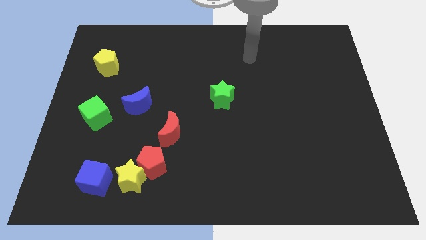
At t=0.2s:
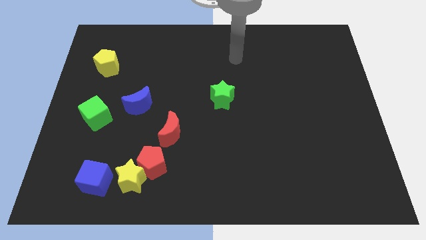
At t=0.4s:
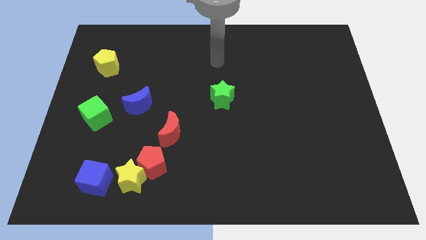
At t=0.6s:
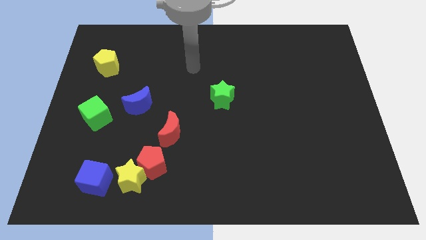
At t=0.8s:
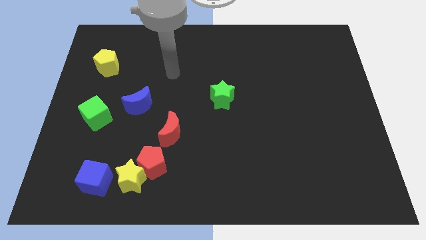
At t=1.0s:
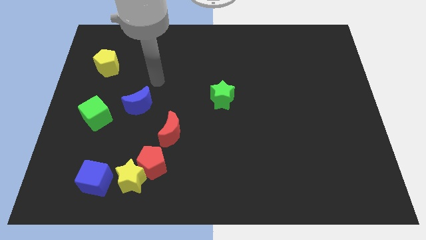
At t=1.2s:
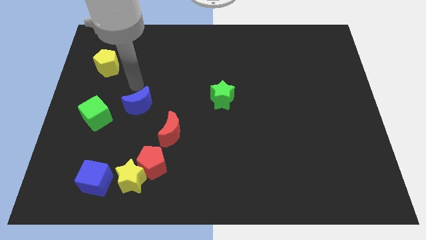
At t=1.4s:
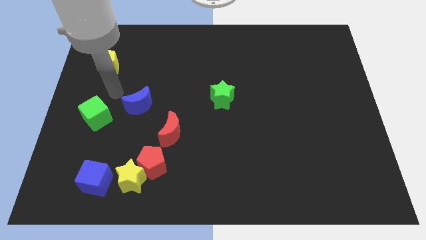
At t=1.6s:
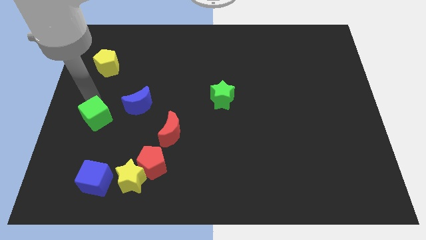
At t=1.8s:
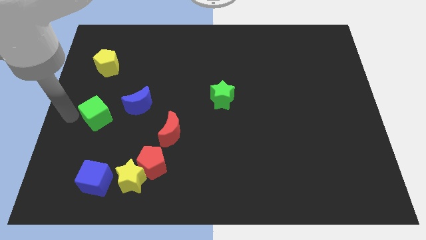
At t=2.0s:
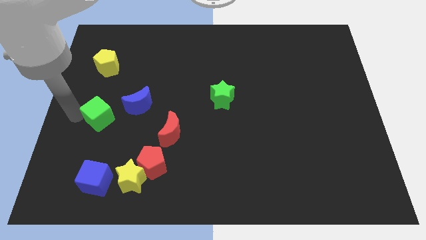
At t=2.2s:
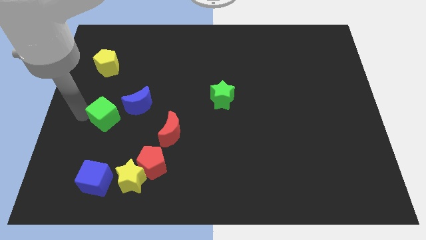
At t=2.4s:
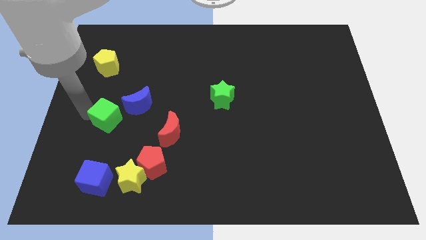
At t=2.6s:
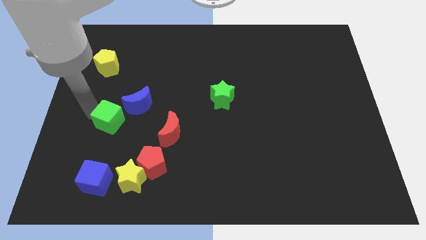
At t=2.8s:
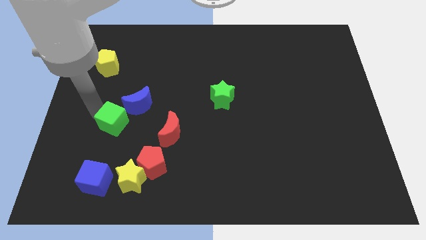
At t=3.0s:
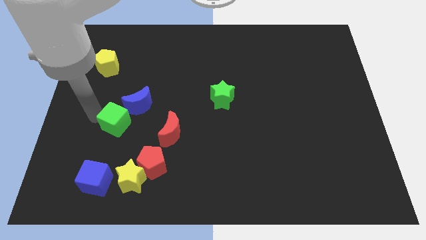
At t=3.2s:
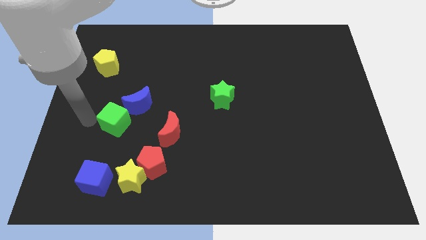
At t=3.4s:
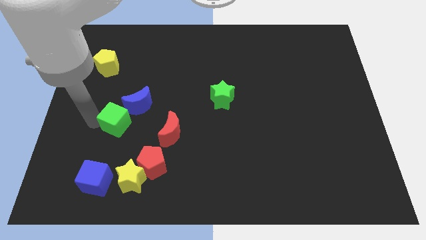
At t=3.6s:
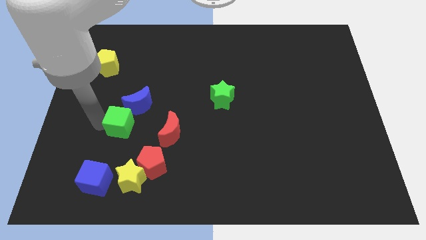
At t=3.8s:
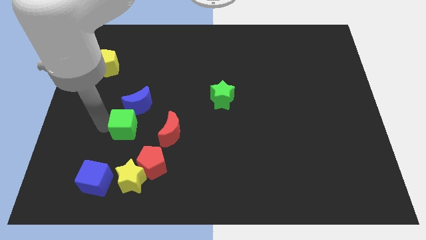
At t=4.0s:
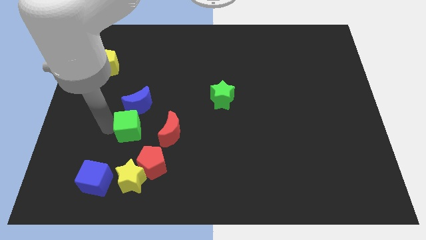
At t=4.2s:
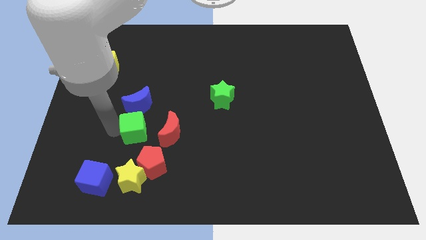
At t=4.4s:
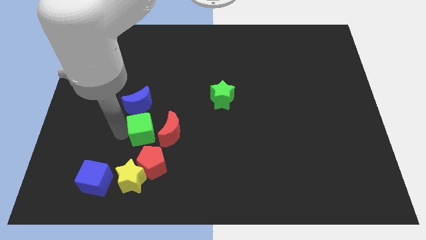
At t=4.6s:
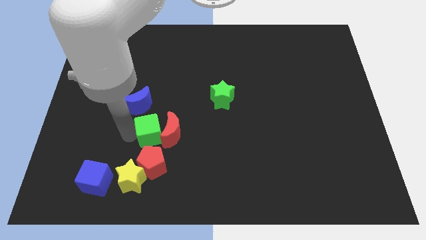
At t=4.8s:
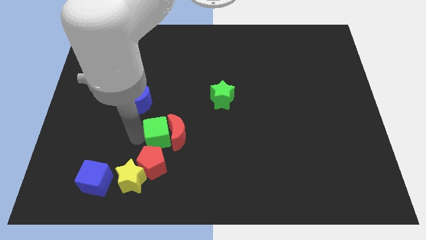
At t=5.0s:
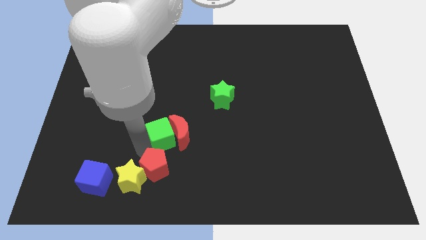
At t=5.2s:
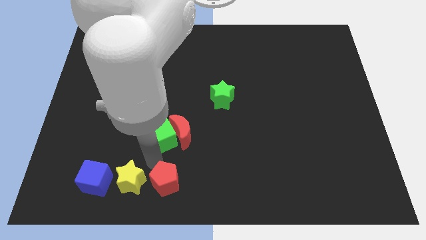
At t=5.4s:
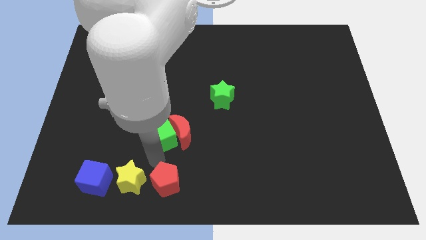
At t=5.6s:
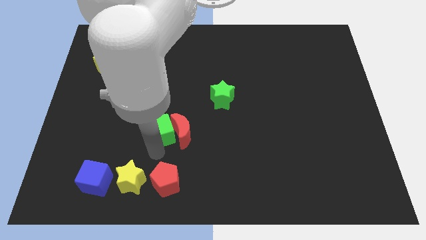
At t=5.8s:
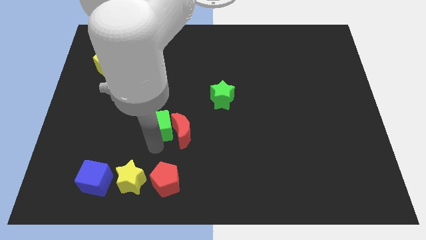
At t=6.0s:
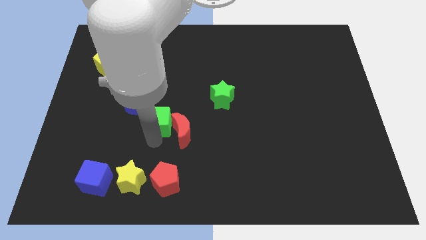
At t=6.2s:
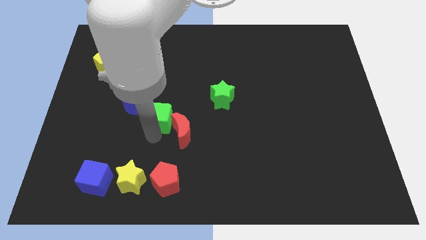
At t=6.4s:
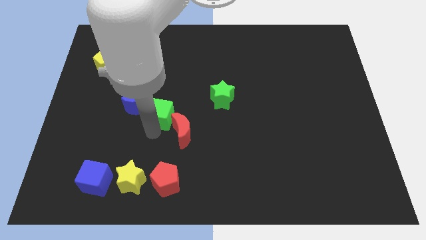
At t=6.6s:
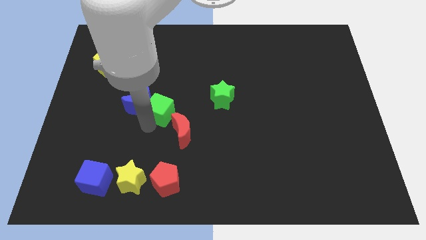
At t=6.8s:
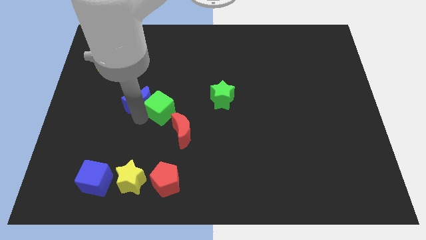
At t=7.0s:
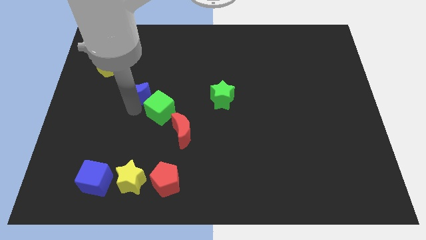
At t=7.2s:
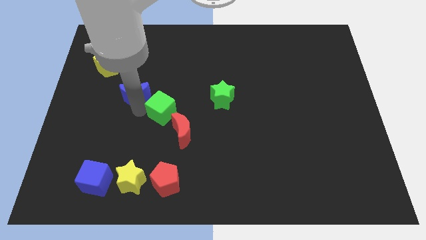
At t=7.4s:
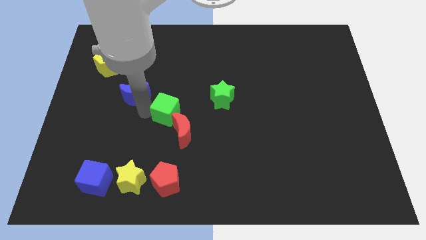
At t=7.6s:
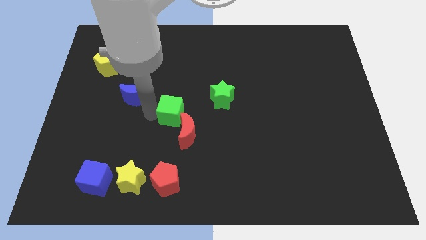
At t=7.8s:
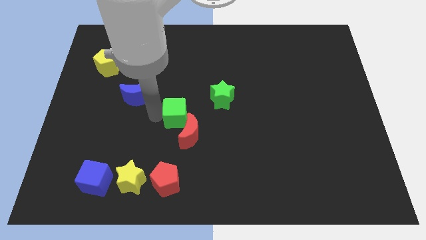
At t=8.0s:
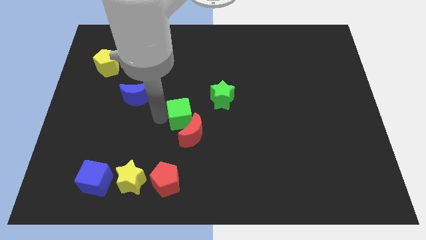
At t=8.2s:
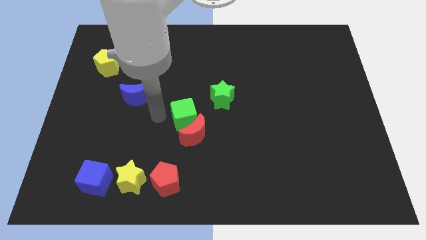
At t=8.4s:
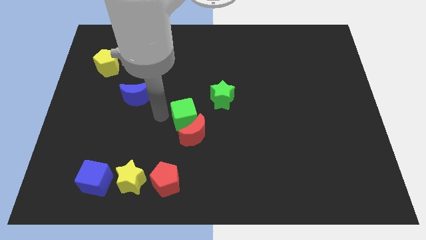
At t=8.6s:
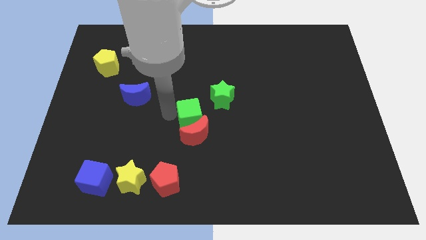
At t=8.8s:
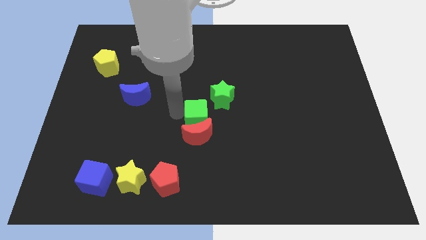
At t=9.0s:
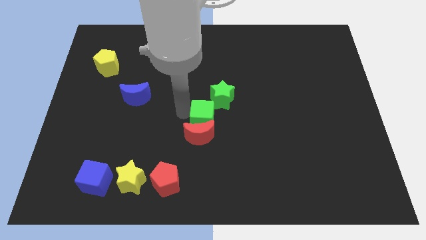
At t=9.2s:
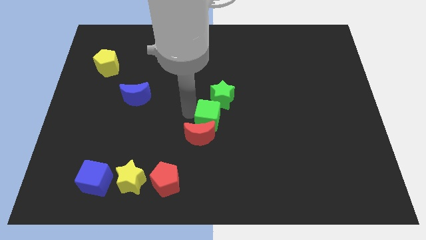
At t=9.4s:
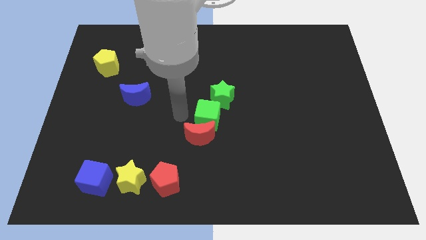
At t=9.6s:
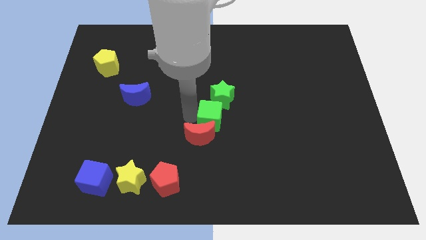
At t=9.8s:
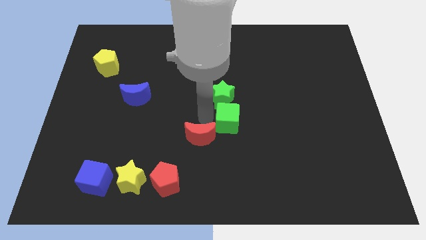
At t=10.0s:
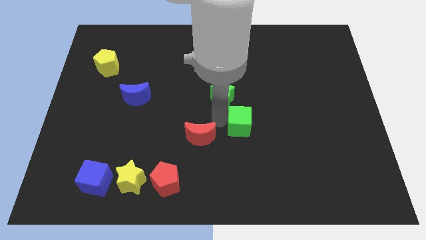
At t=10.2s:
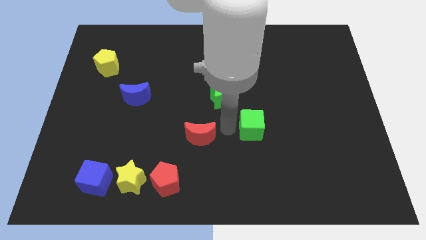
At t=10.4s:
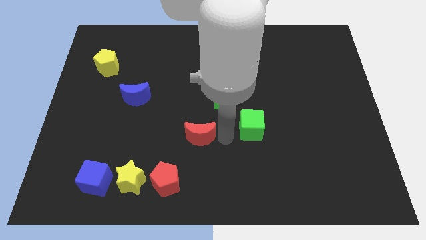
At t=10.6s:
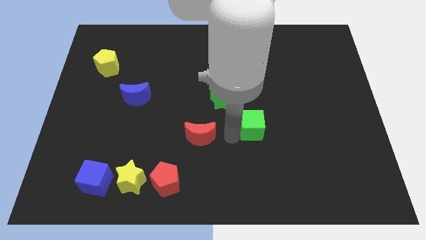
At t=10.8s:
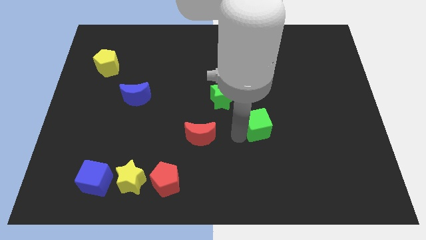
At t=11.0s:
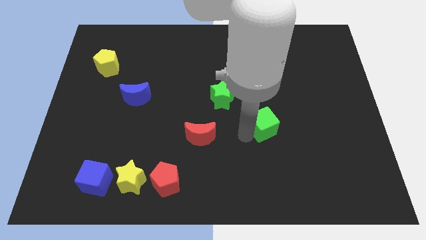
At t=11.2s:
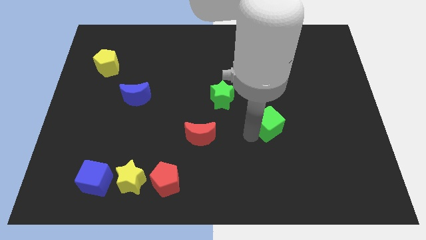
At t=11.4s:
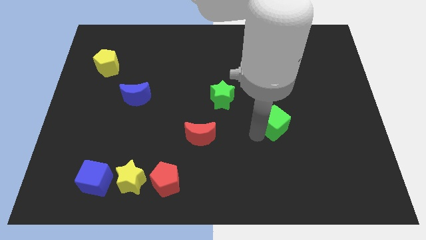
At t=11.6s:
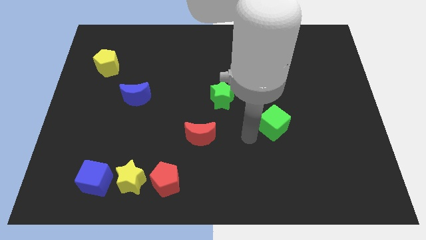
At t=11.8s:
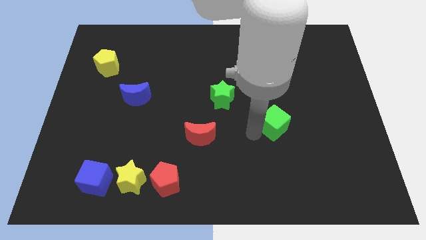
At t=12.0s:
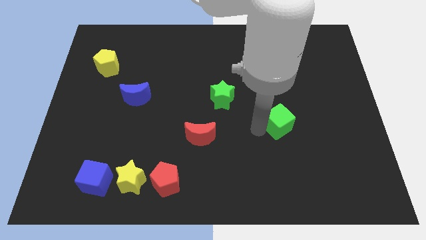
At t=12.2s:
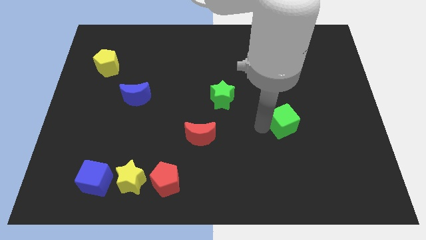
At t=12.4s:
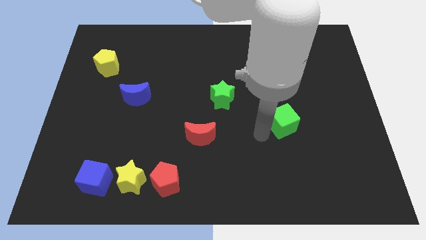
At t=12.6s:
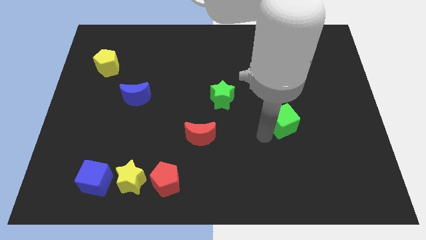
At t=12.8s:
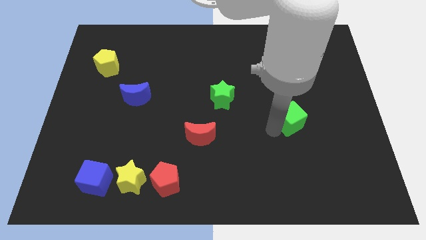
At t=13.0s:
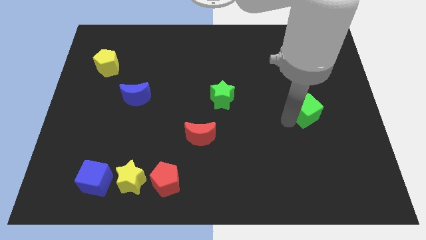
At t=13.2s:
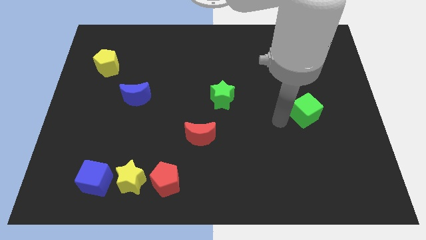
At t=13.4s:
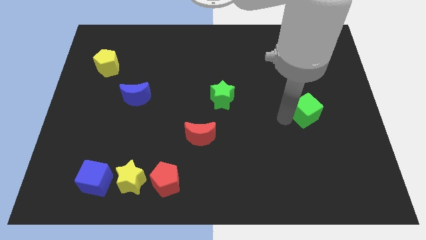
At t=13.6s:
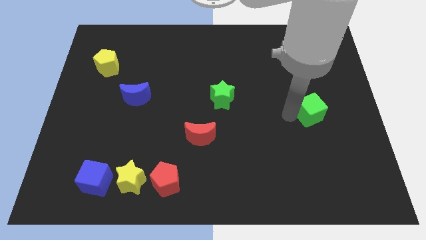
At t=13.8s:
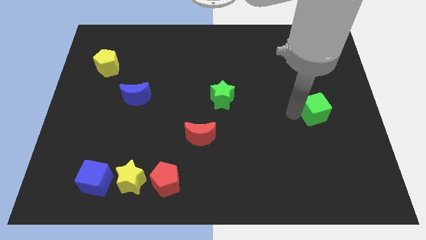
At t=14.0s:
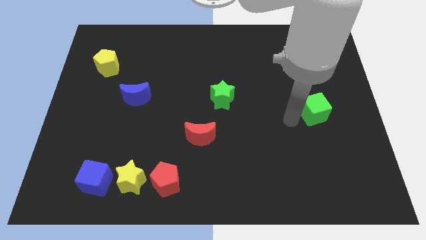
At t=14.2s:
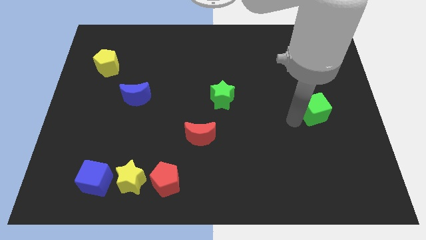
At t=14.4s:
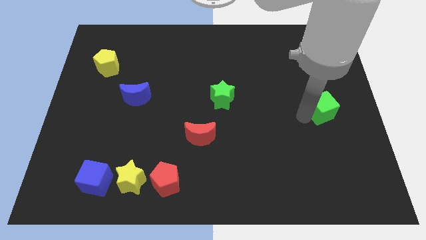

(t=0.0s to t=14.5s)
put the green cube to the right side of the board
